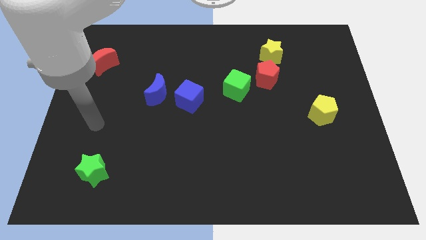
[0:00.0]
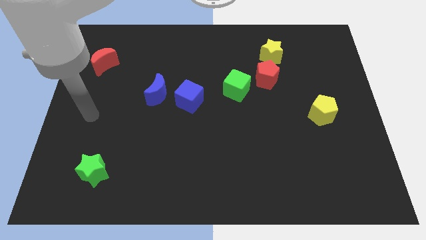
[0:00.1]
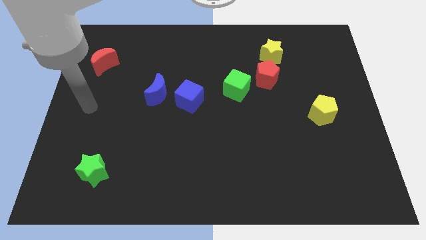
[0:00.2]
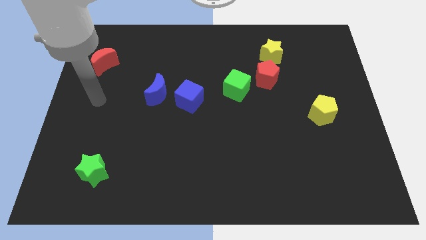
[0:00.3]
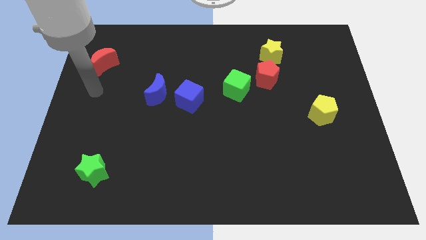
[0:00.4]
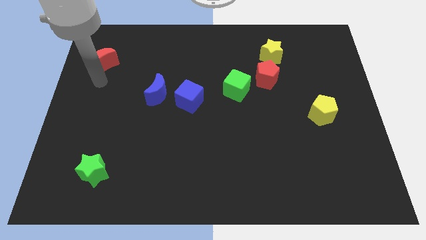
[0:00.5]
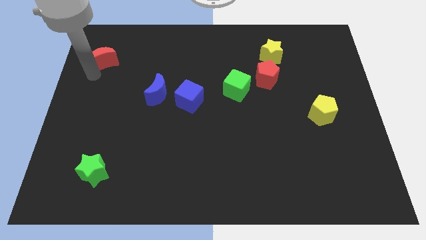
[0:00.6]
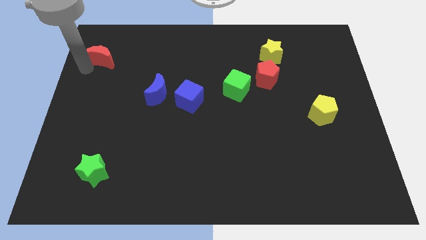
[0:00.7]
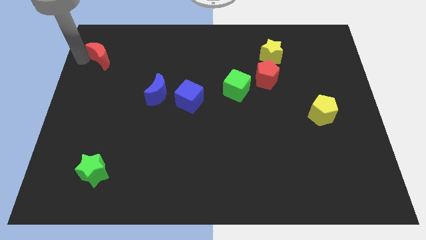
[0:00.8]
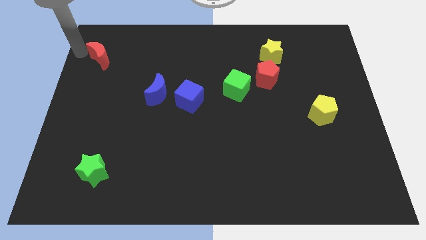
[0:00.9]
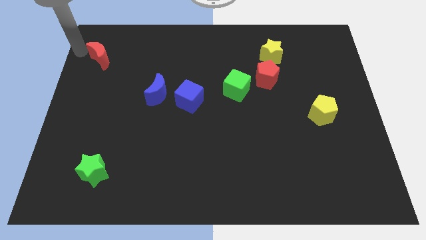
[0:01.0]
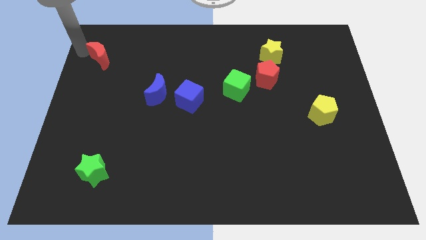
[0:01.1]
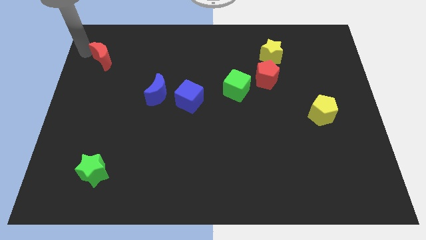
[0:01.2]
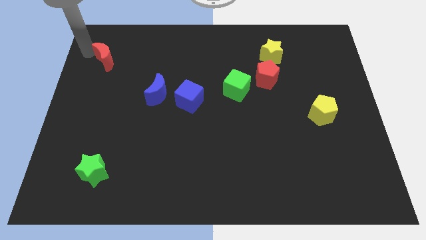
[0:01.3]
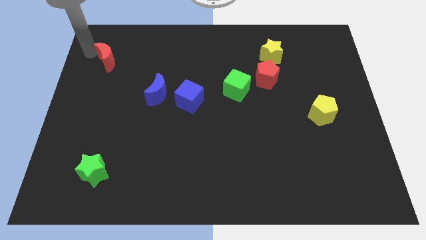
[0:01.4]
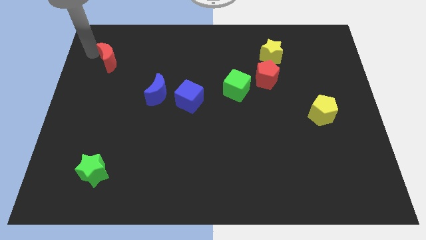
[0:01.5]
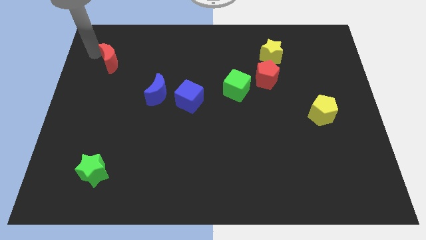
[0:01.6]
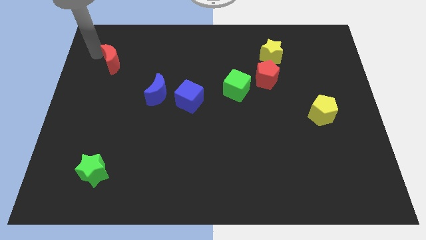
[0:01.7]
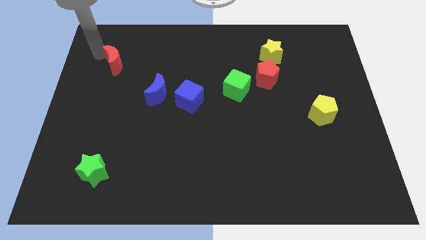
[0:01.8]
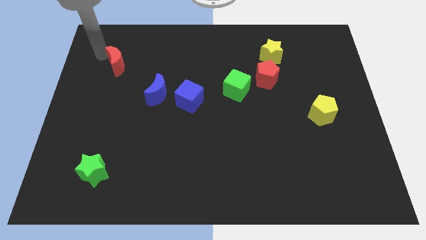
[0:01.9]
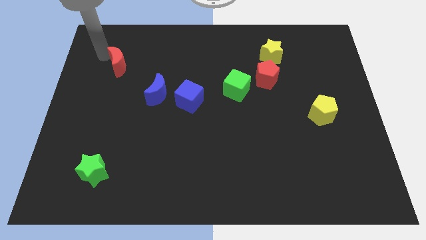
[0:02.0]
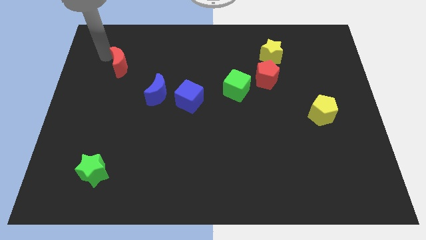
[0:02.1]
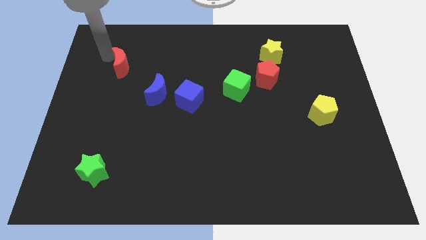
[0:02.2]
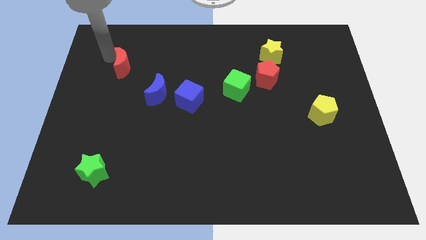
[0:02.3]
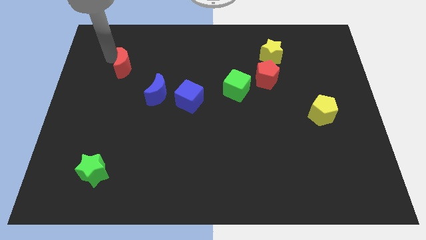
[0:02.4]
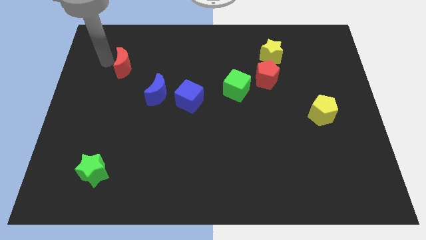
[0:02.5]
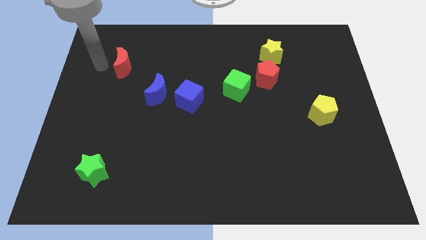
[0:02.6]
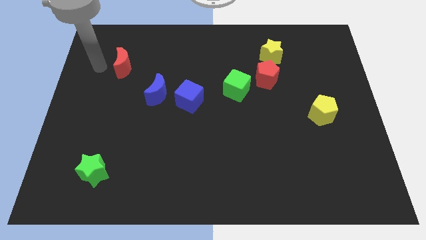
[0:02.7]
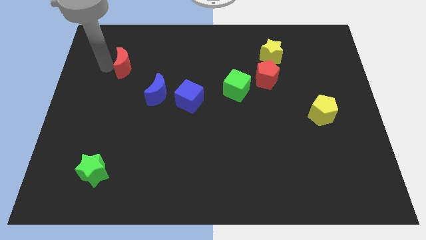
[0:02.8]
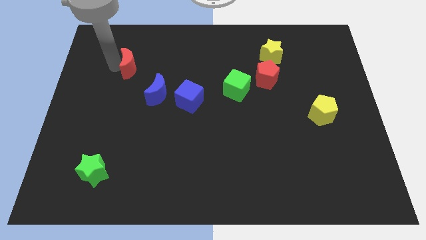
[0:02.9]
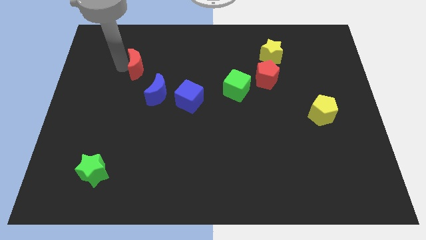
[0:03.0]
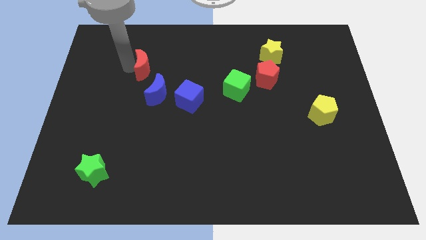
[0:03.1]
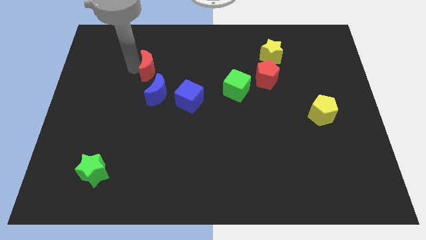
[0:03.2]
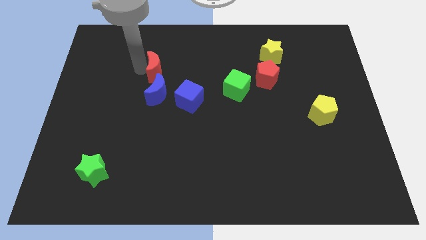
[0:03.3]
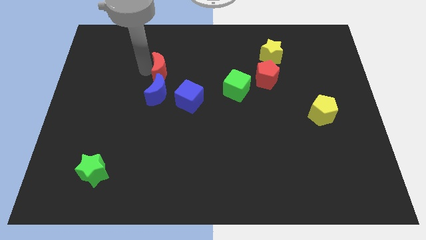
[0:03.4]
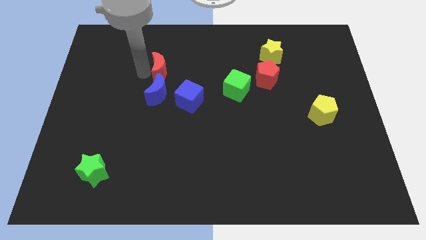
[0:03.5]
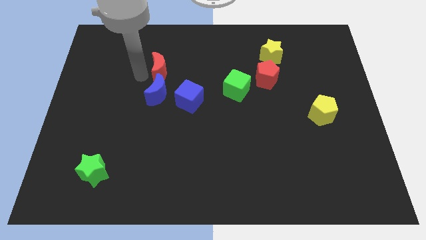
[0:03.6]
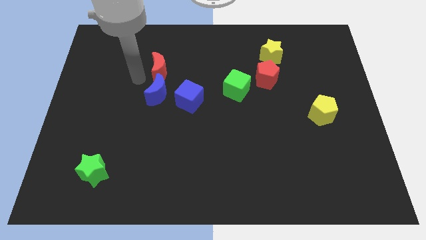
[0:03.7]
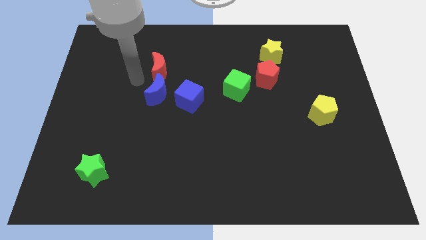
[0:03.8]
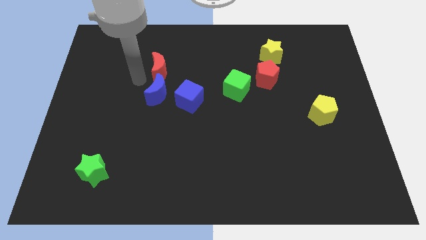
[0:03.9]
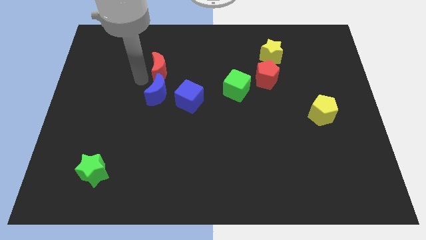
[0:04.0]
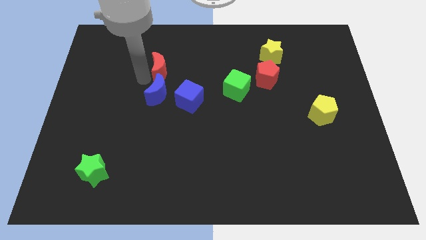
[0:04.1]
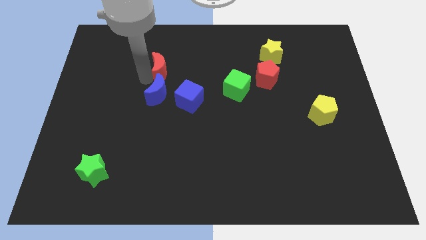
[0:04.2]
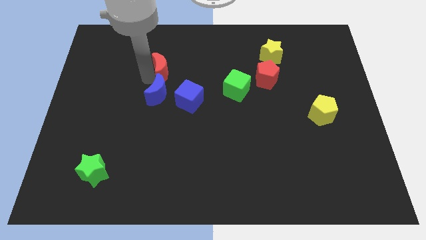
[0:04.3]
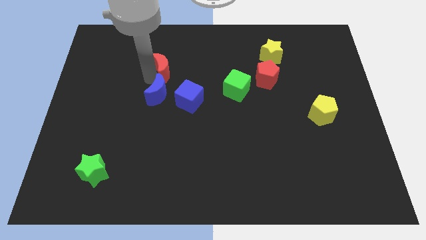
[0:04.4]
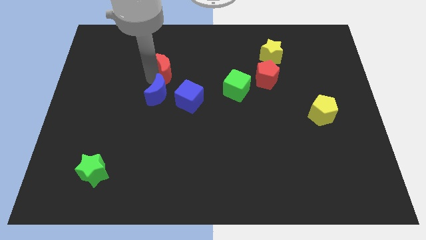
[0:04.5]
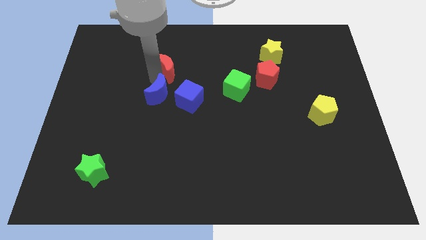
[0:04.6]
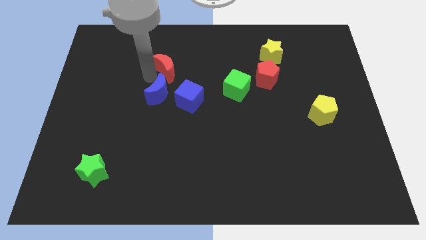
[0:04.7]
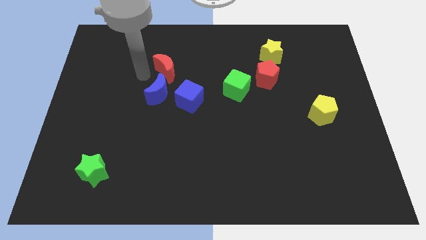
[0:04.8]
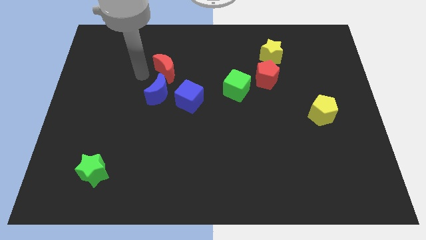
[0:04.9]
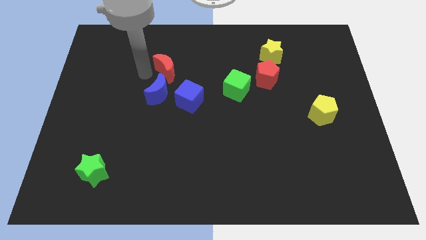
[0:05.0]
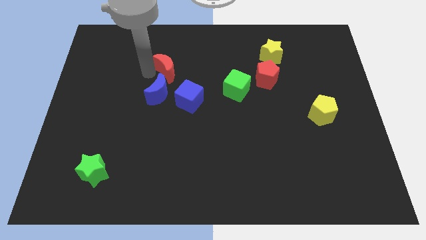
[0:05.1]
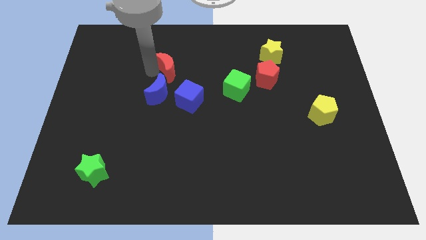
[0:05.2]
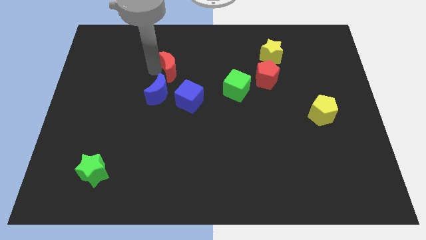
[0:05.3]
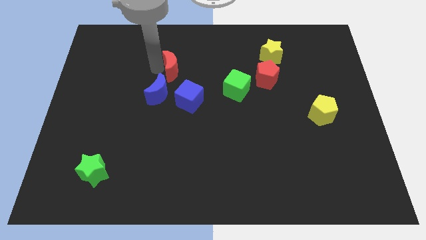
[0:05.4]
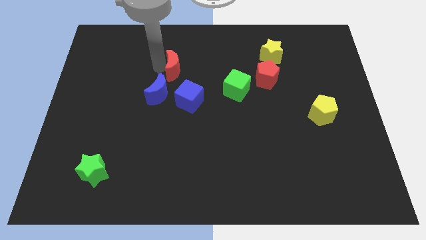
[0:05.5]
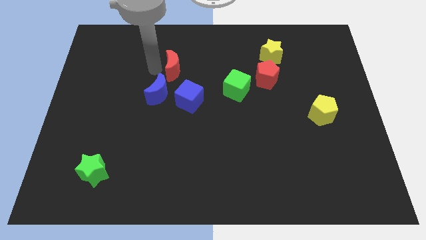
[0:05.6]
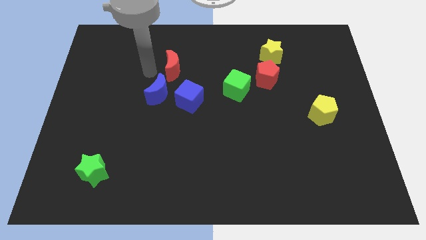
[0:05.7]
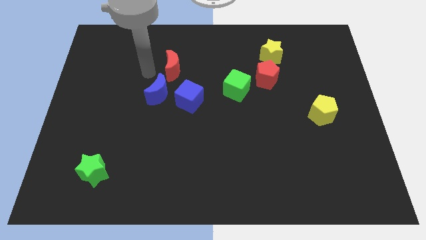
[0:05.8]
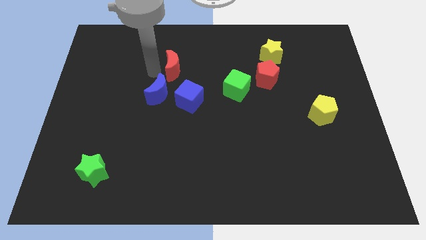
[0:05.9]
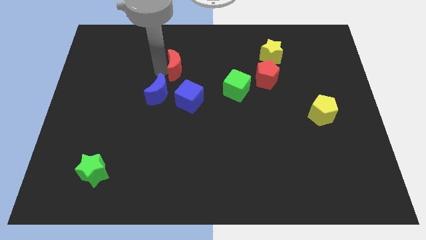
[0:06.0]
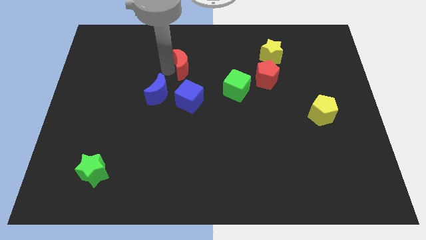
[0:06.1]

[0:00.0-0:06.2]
move the red moon to the right

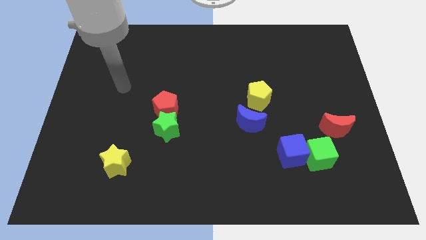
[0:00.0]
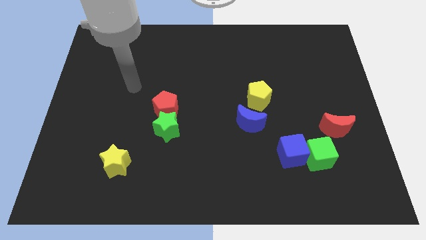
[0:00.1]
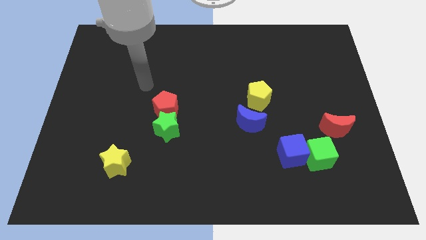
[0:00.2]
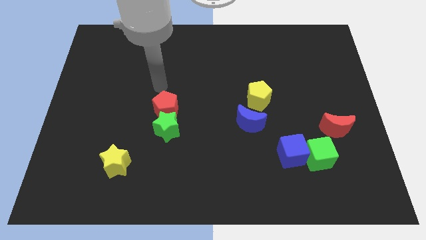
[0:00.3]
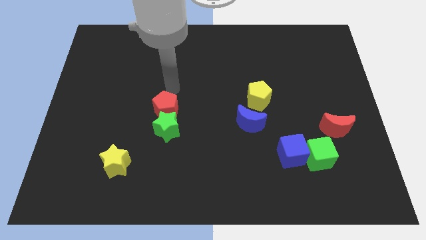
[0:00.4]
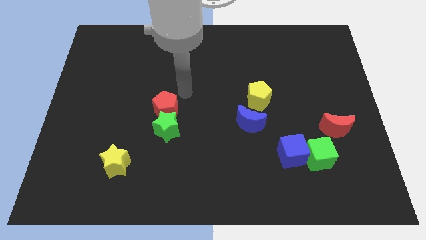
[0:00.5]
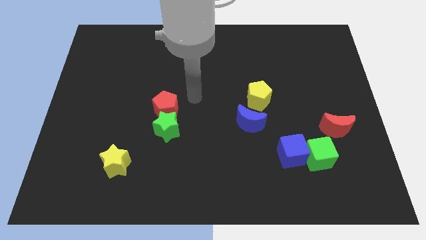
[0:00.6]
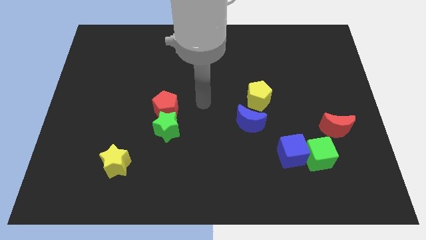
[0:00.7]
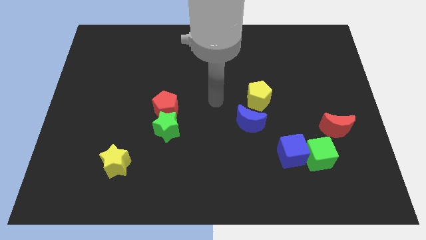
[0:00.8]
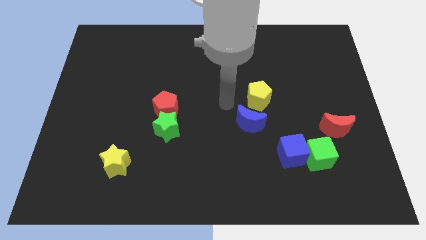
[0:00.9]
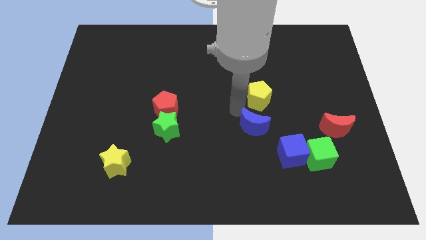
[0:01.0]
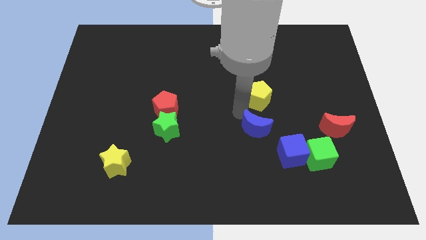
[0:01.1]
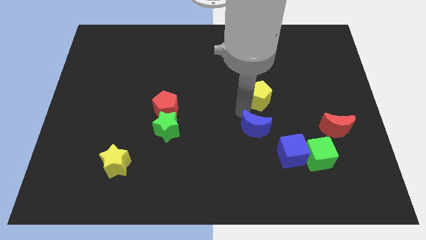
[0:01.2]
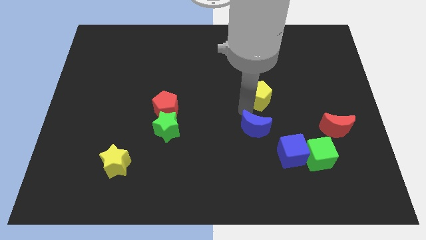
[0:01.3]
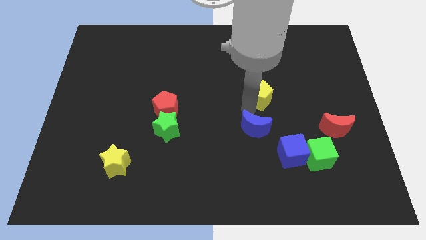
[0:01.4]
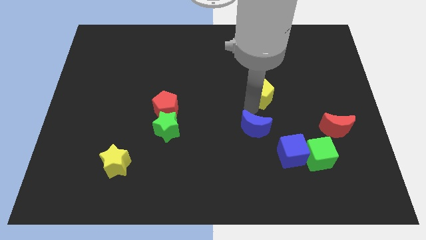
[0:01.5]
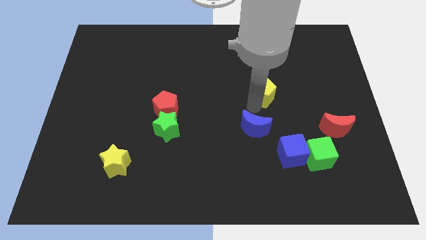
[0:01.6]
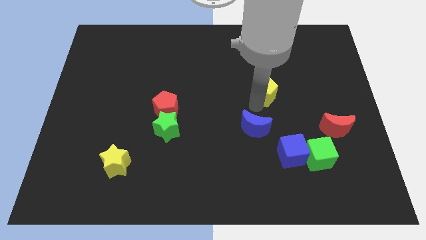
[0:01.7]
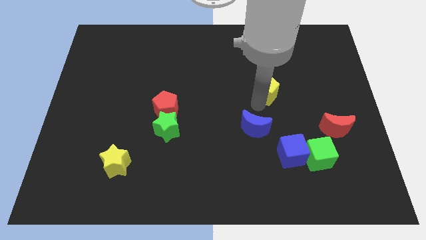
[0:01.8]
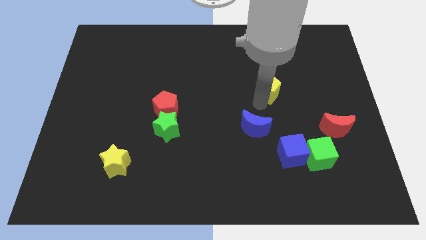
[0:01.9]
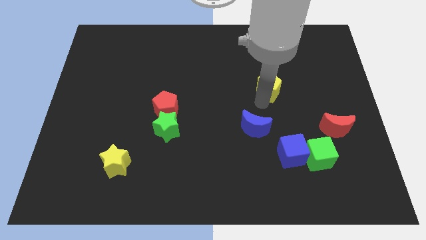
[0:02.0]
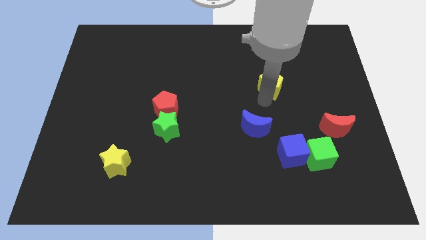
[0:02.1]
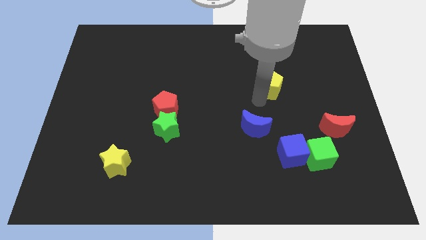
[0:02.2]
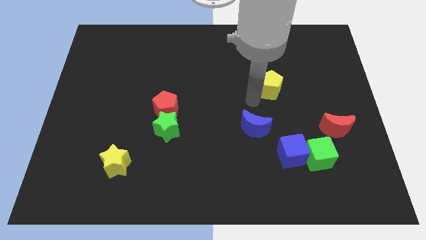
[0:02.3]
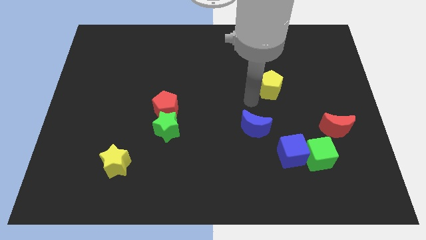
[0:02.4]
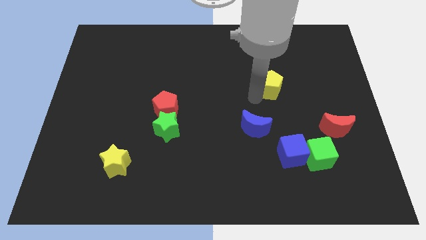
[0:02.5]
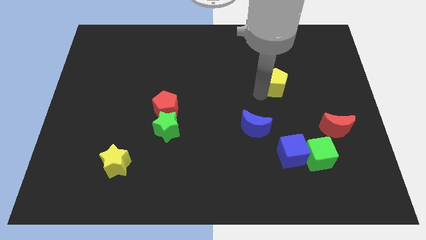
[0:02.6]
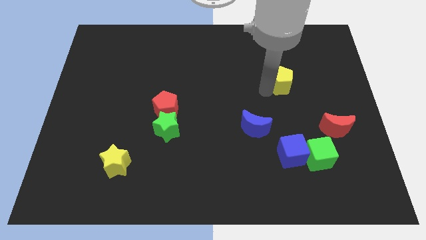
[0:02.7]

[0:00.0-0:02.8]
slide the yellow pentagon diagonally upwards and to the right a bit
